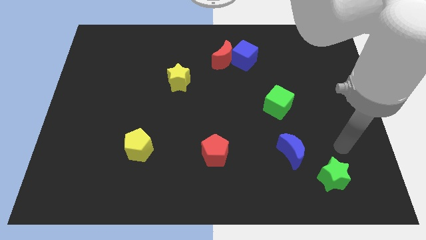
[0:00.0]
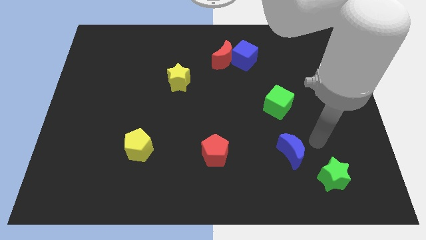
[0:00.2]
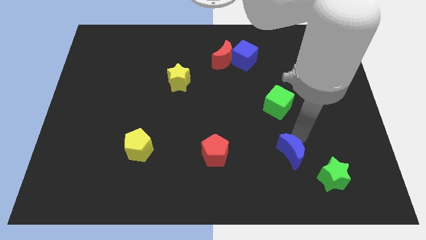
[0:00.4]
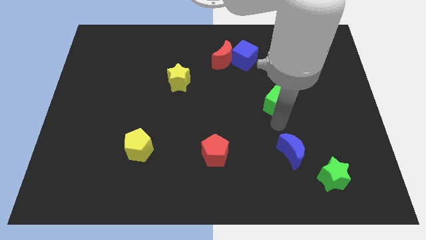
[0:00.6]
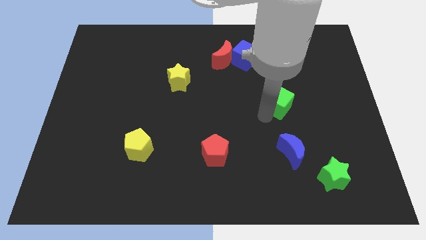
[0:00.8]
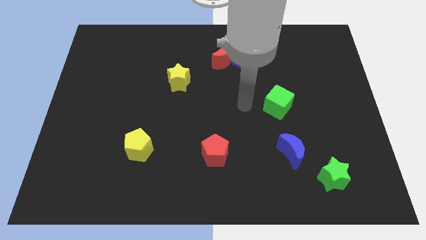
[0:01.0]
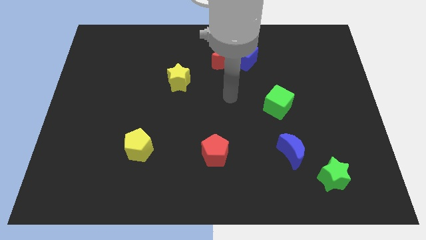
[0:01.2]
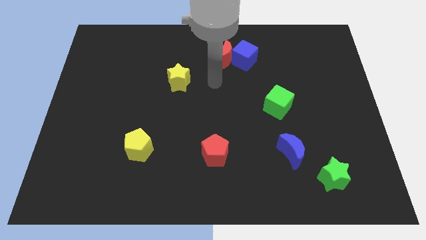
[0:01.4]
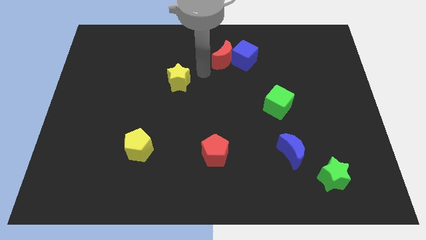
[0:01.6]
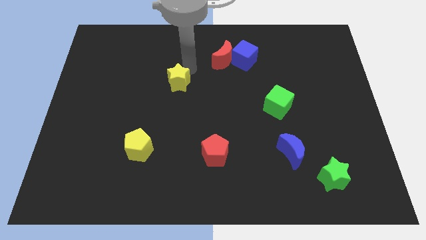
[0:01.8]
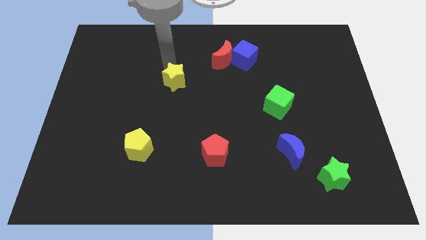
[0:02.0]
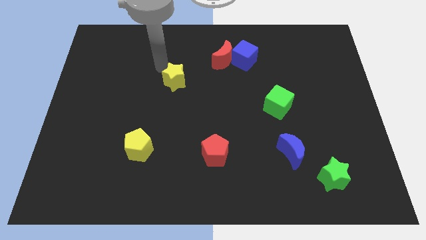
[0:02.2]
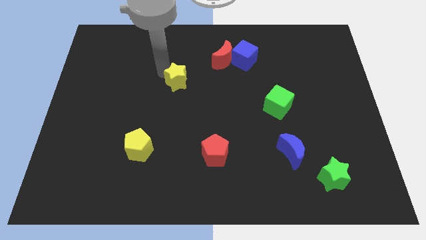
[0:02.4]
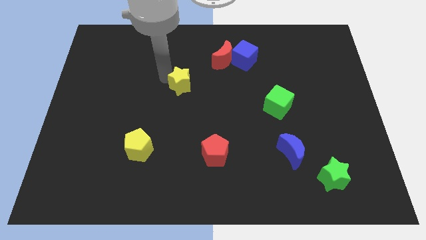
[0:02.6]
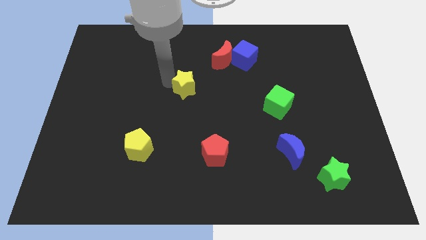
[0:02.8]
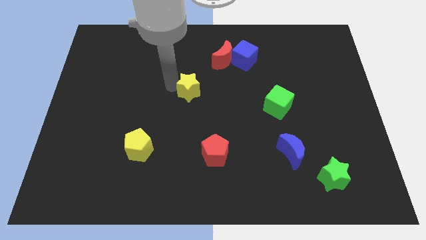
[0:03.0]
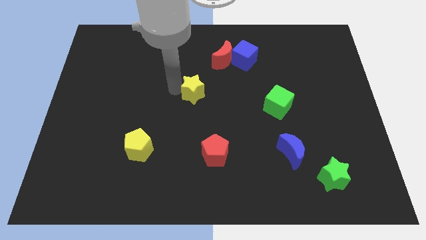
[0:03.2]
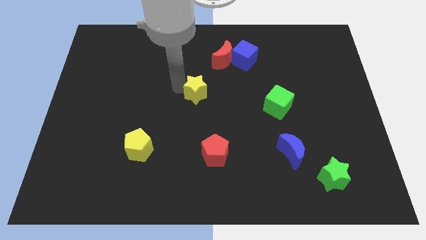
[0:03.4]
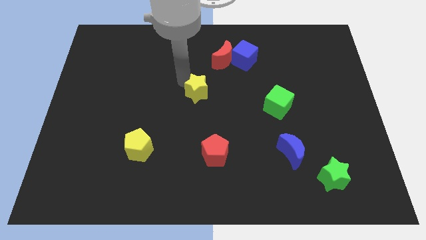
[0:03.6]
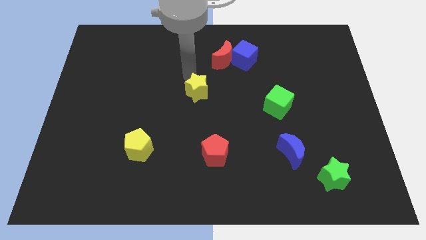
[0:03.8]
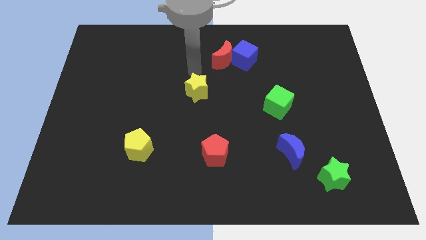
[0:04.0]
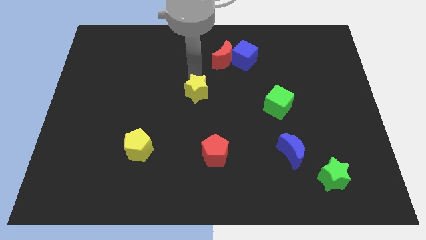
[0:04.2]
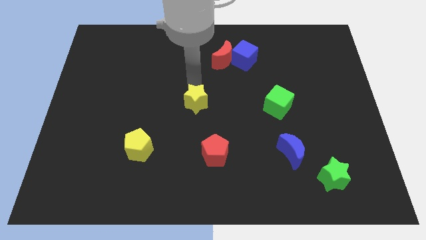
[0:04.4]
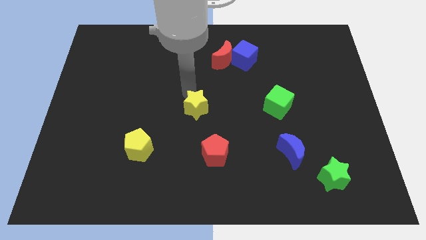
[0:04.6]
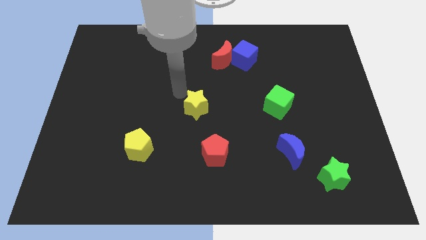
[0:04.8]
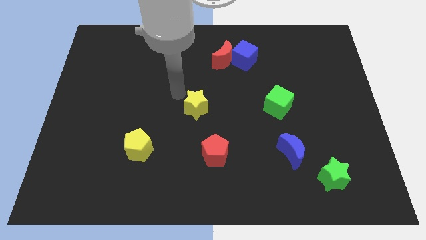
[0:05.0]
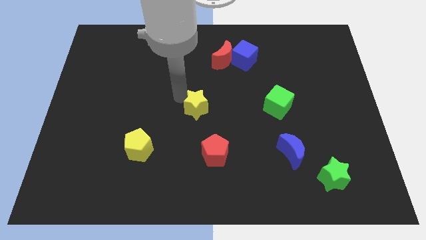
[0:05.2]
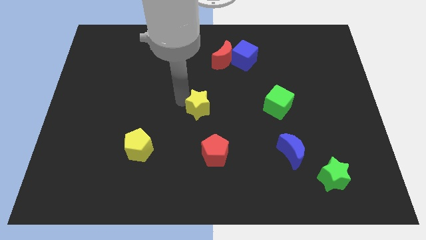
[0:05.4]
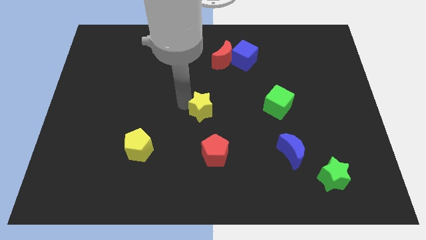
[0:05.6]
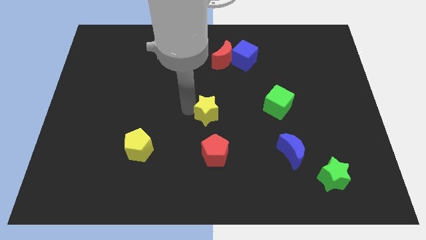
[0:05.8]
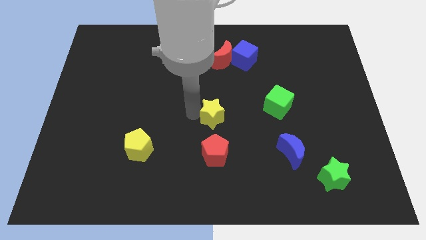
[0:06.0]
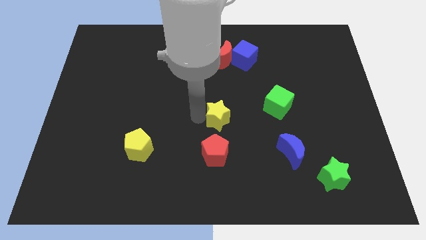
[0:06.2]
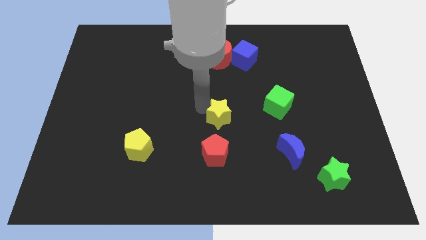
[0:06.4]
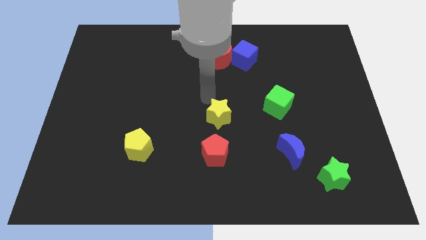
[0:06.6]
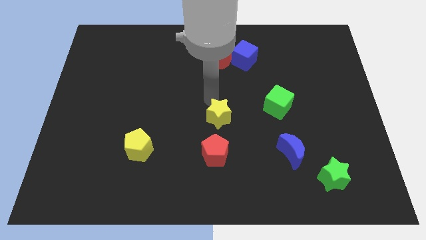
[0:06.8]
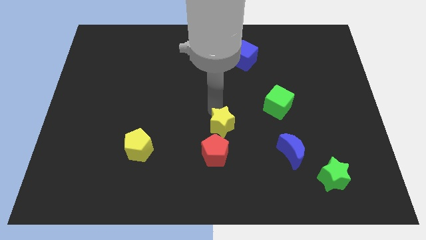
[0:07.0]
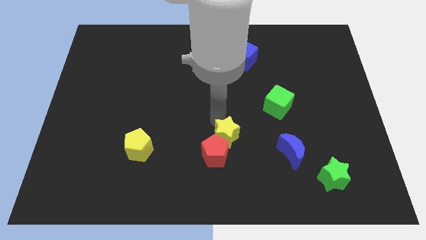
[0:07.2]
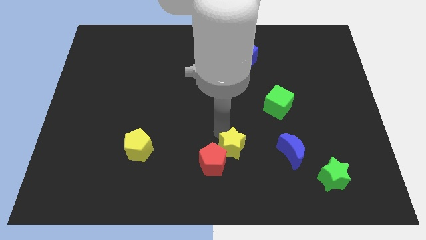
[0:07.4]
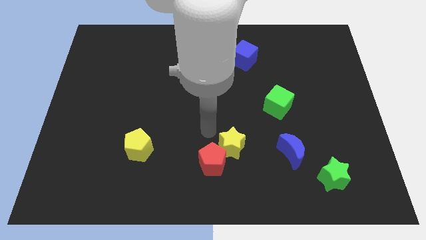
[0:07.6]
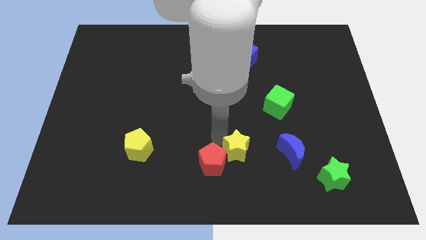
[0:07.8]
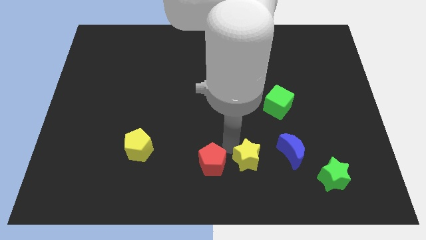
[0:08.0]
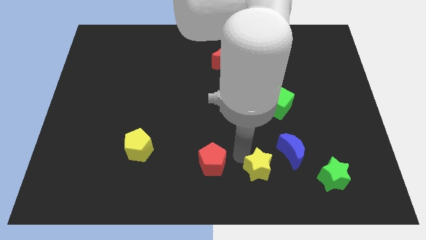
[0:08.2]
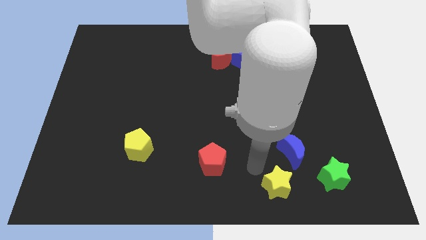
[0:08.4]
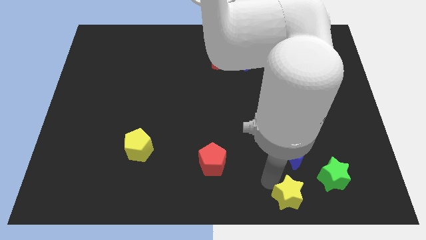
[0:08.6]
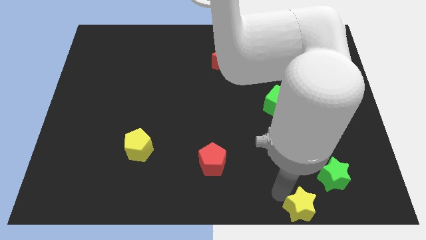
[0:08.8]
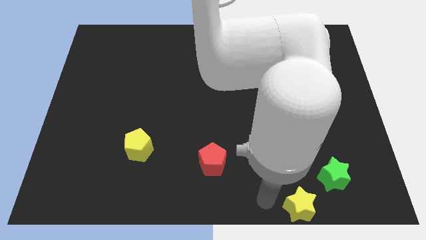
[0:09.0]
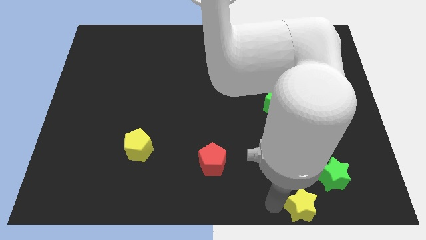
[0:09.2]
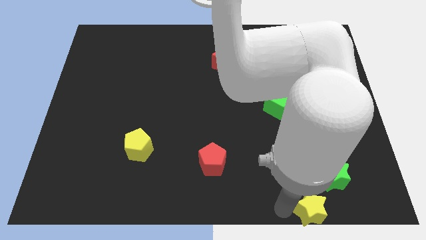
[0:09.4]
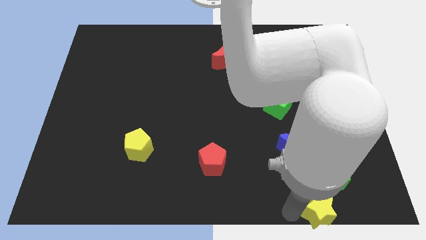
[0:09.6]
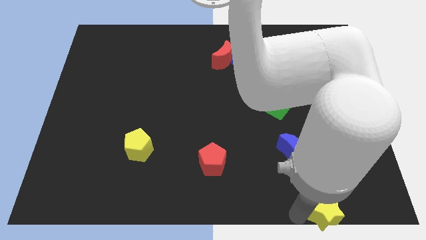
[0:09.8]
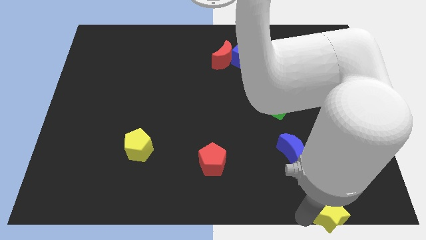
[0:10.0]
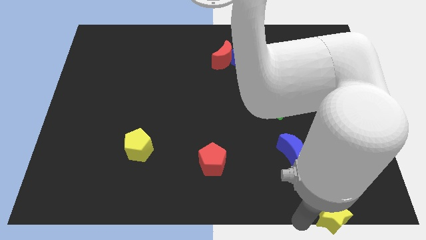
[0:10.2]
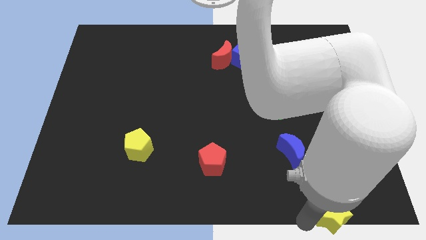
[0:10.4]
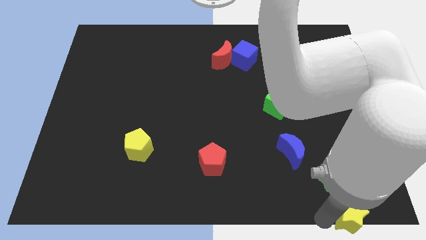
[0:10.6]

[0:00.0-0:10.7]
slide the yellow star to the bottom right corner

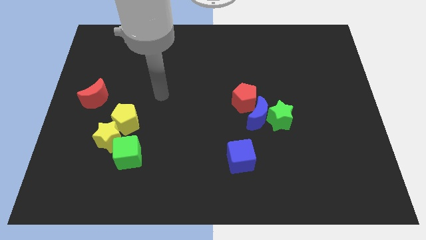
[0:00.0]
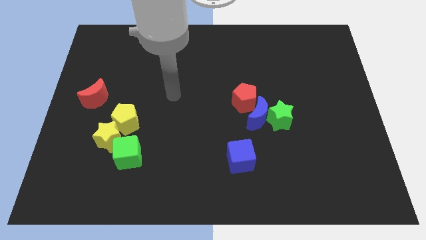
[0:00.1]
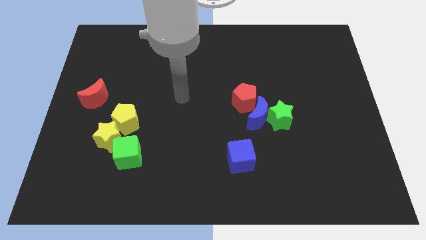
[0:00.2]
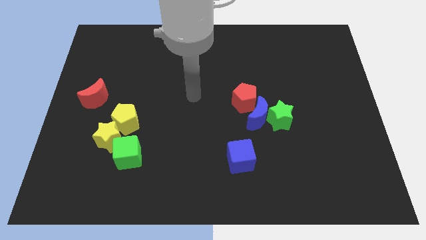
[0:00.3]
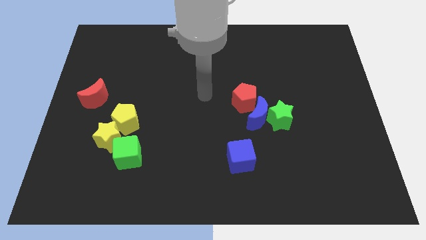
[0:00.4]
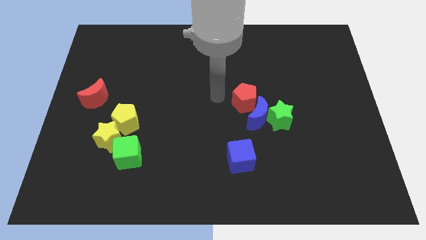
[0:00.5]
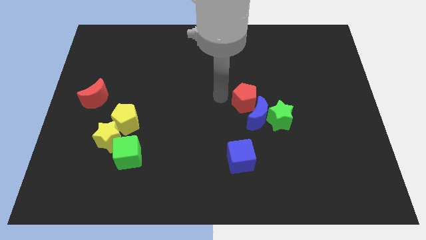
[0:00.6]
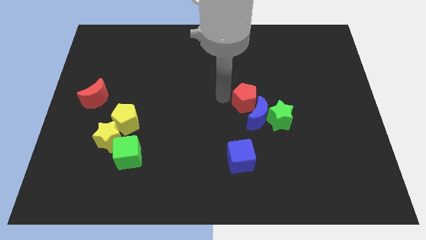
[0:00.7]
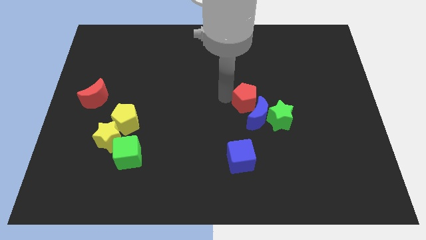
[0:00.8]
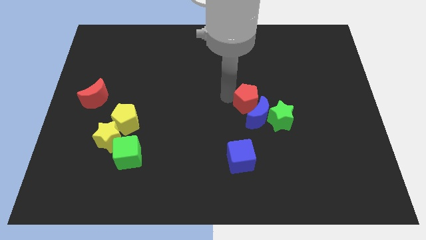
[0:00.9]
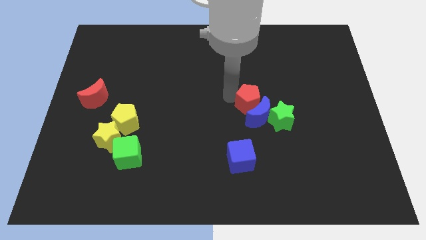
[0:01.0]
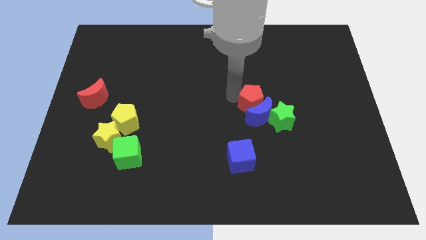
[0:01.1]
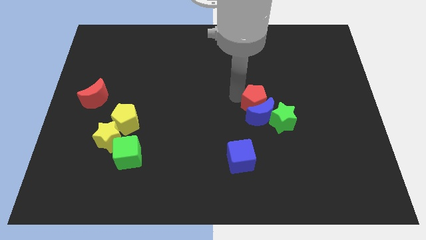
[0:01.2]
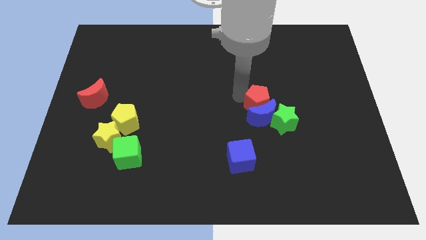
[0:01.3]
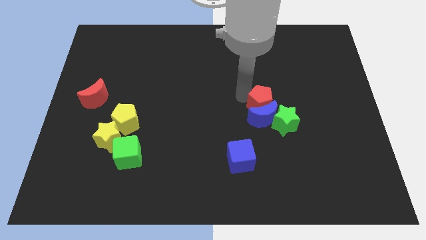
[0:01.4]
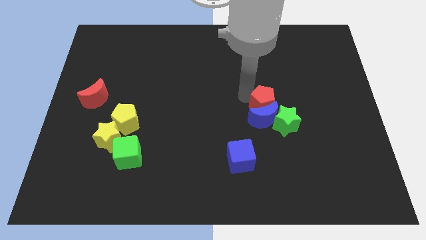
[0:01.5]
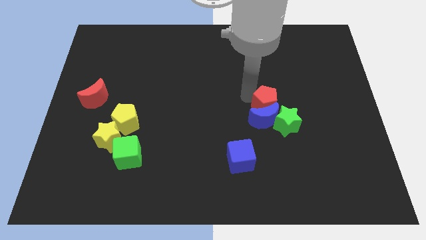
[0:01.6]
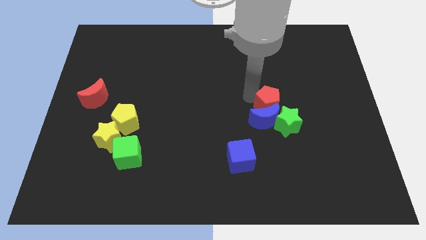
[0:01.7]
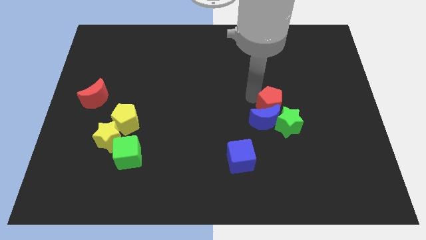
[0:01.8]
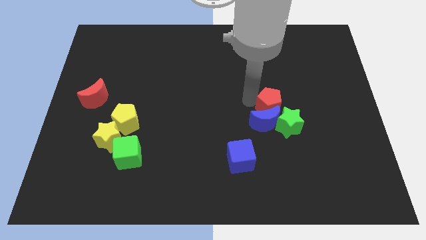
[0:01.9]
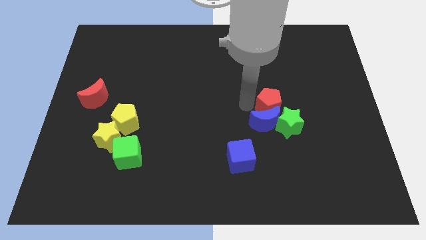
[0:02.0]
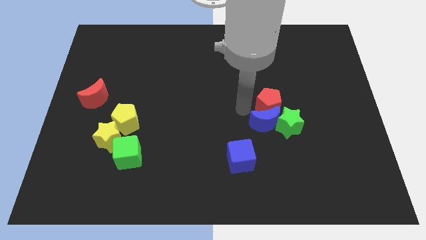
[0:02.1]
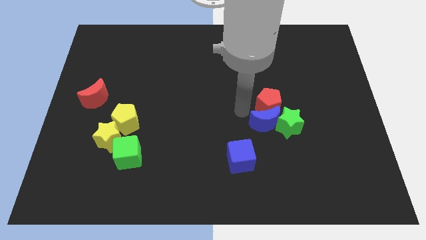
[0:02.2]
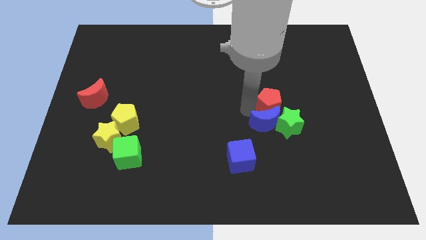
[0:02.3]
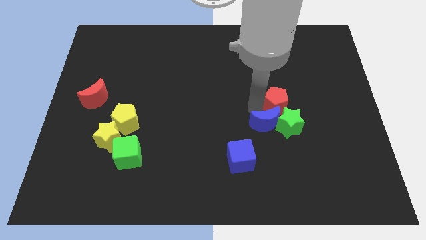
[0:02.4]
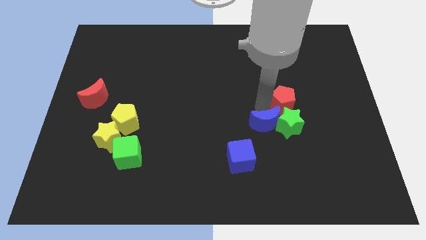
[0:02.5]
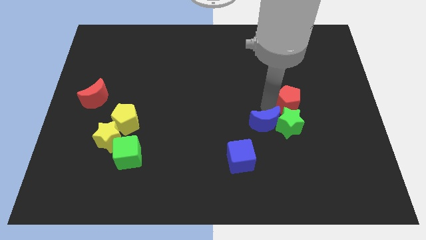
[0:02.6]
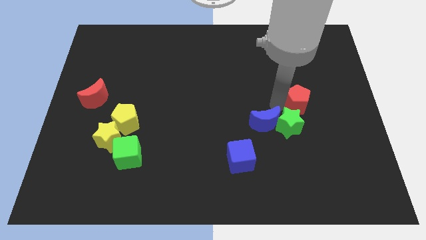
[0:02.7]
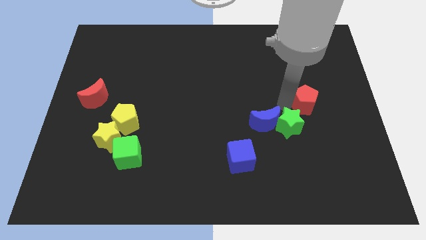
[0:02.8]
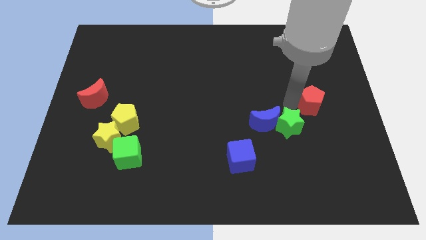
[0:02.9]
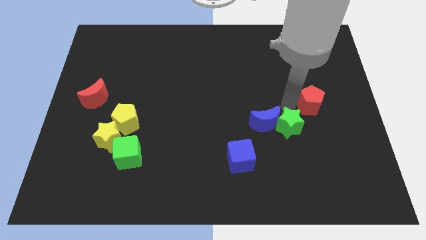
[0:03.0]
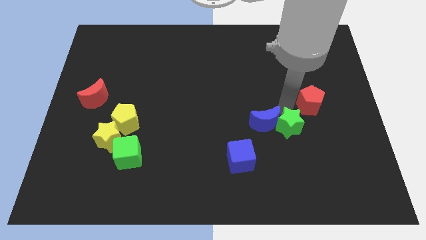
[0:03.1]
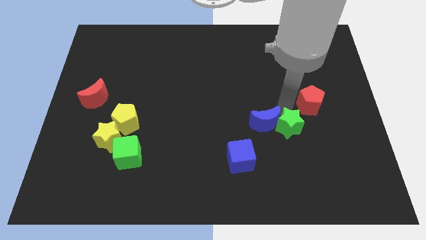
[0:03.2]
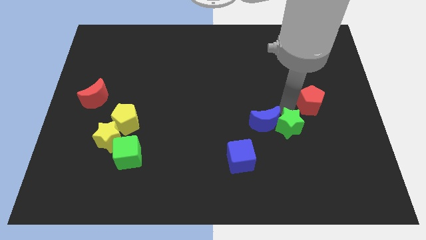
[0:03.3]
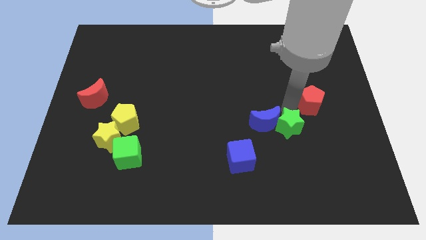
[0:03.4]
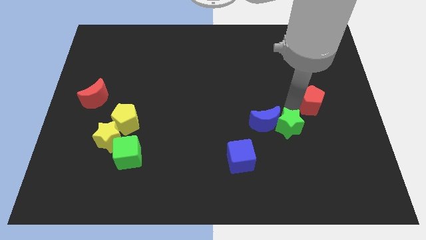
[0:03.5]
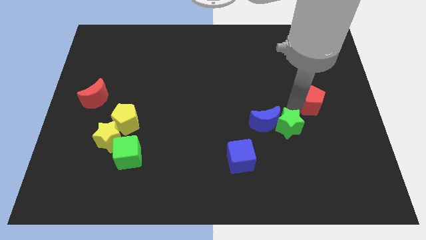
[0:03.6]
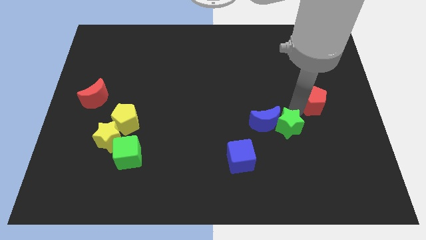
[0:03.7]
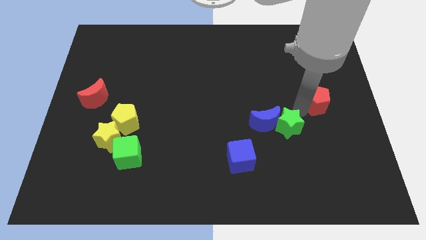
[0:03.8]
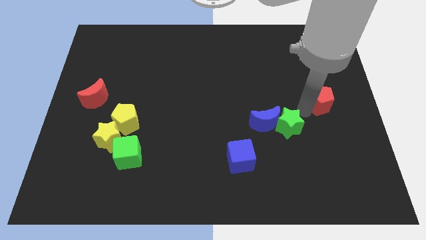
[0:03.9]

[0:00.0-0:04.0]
push the red pentagon to the center right
